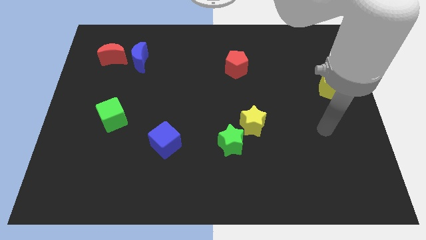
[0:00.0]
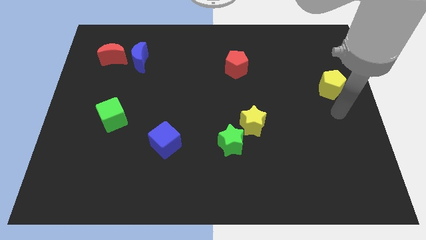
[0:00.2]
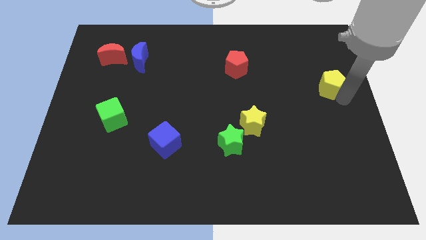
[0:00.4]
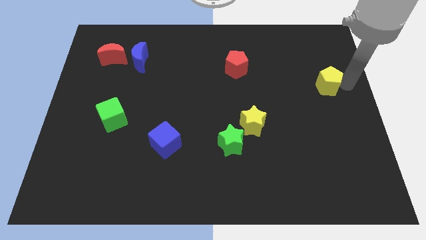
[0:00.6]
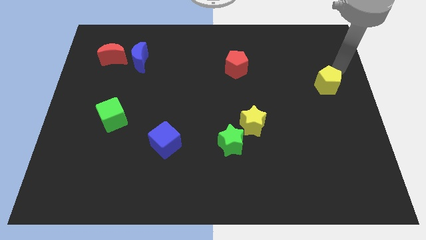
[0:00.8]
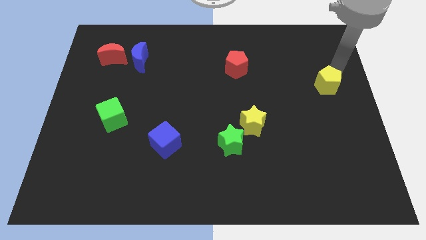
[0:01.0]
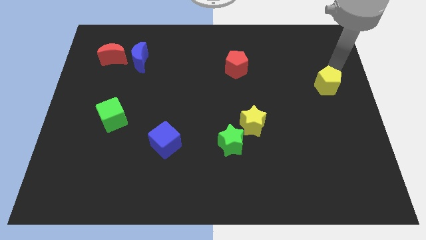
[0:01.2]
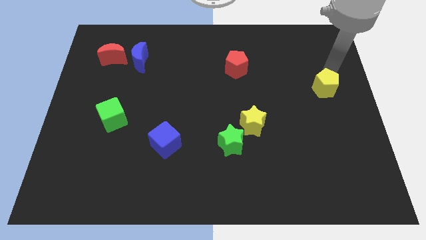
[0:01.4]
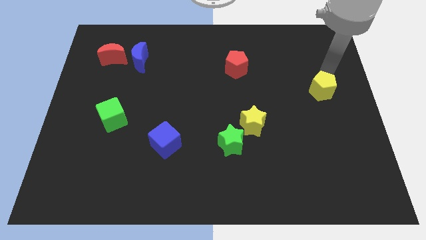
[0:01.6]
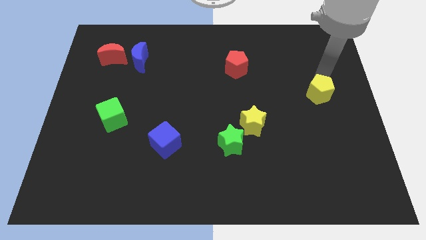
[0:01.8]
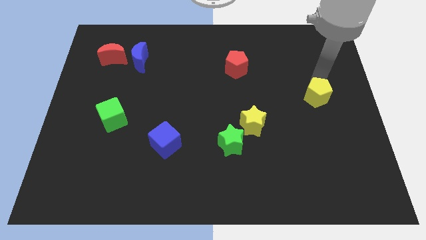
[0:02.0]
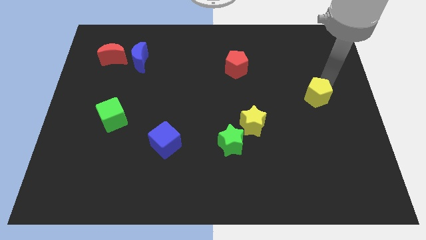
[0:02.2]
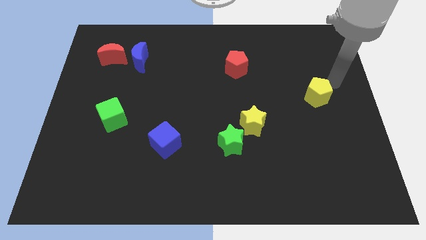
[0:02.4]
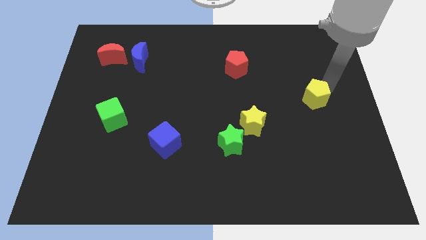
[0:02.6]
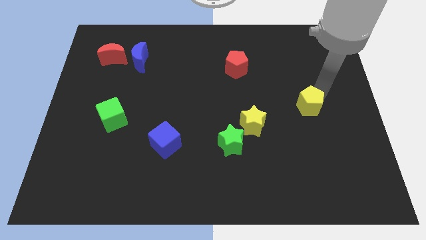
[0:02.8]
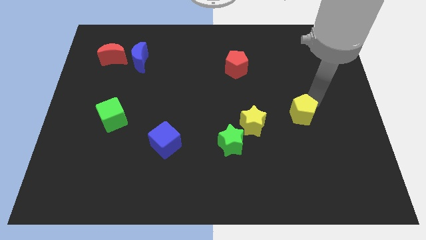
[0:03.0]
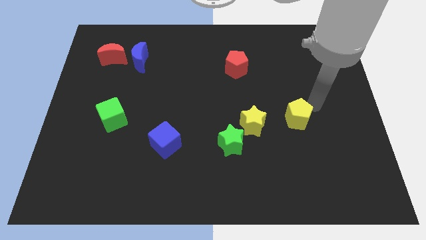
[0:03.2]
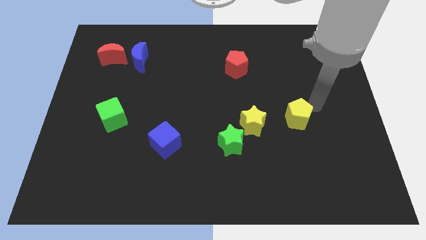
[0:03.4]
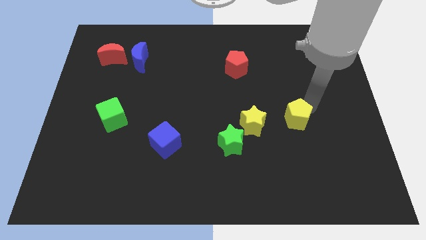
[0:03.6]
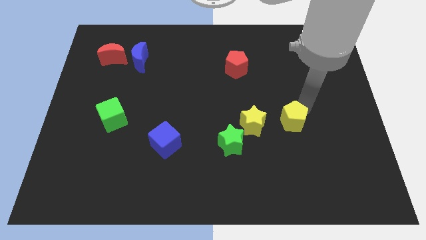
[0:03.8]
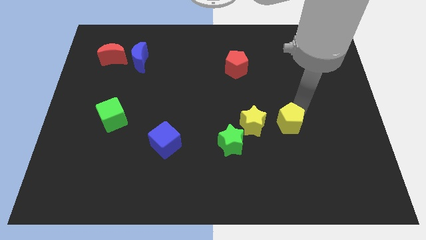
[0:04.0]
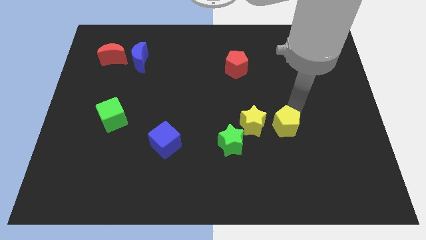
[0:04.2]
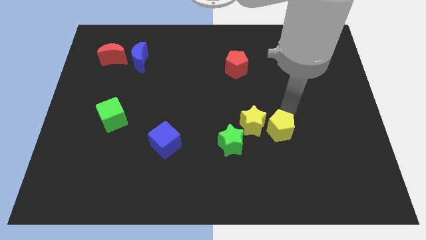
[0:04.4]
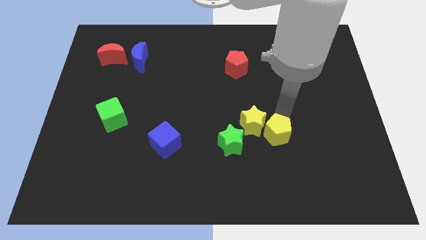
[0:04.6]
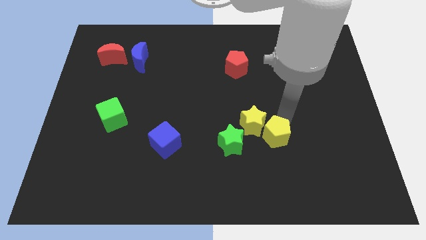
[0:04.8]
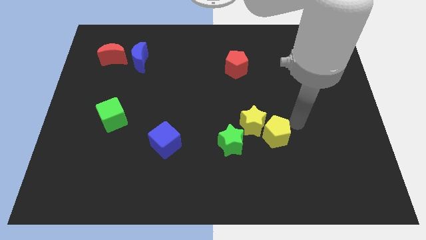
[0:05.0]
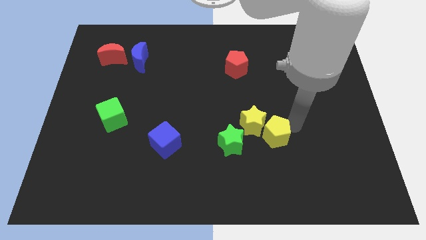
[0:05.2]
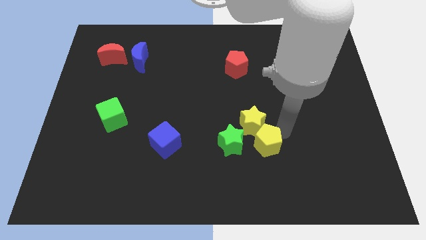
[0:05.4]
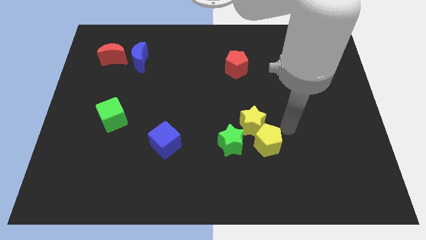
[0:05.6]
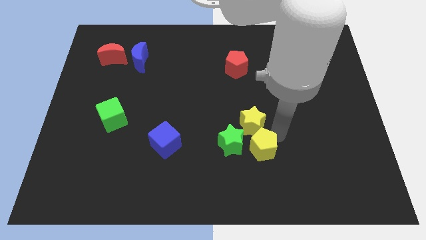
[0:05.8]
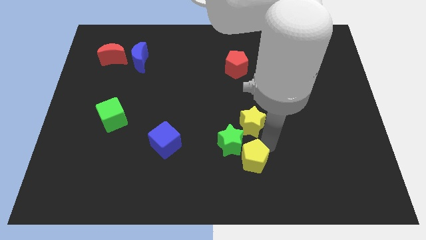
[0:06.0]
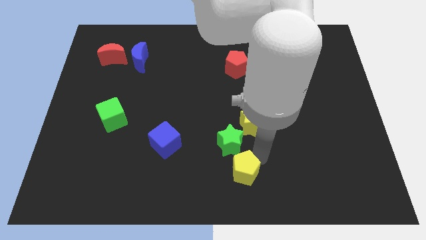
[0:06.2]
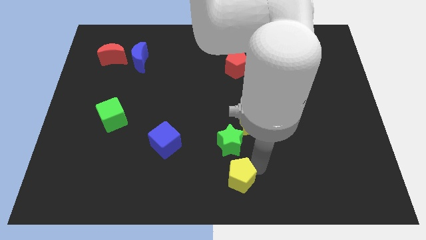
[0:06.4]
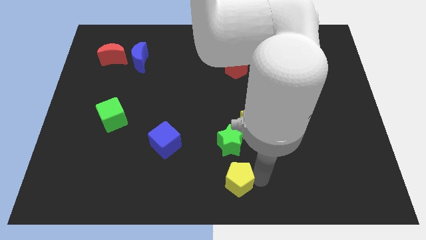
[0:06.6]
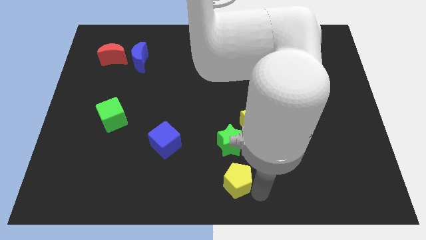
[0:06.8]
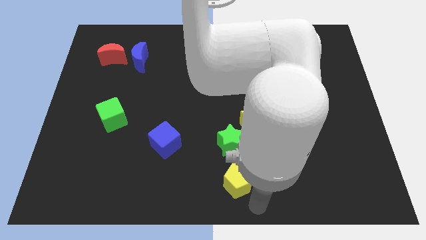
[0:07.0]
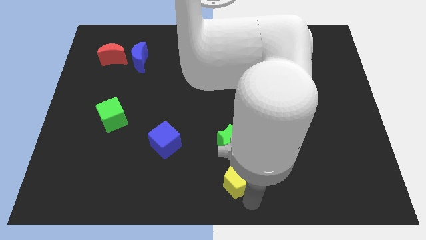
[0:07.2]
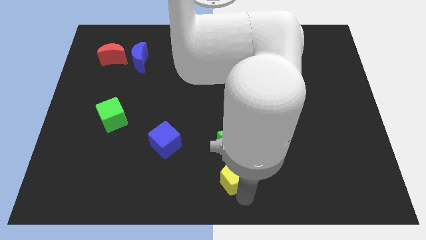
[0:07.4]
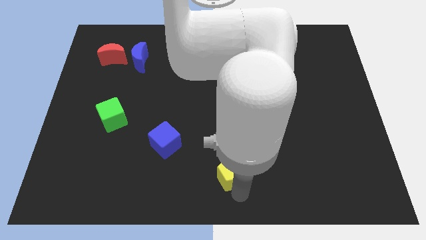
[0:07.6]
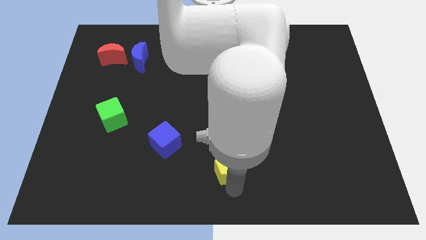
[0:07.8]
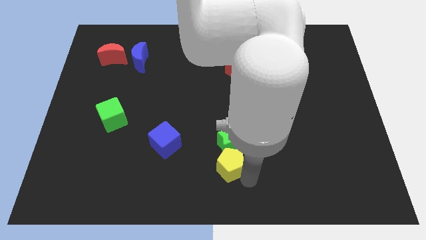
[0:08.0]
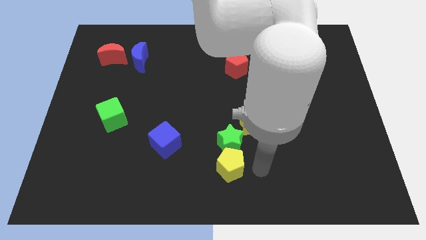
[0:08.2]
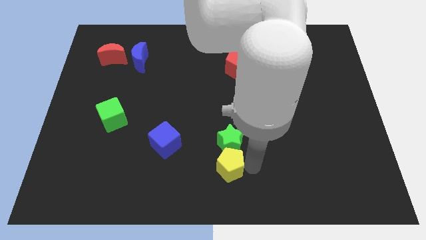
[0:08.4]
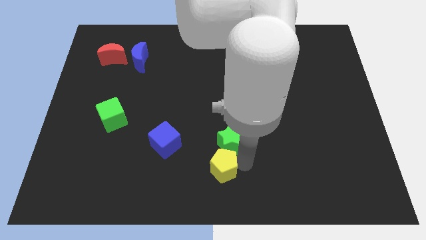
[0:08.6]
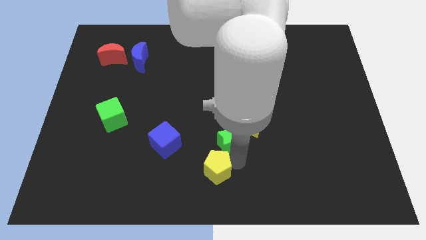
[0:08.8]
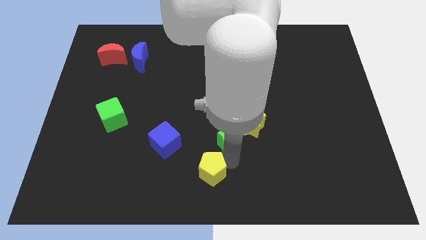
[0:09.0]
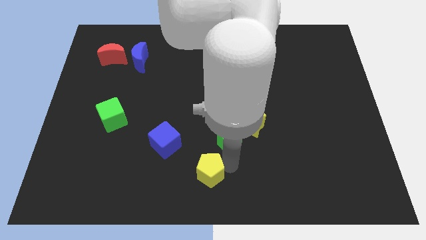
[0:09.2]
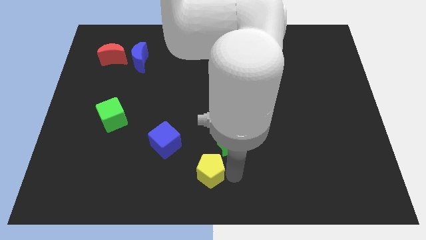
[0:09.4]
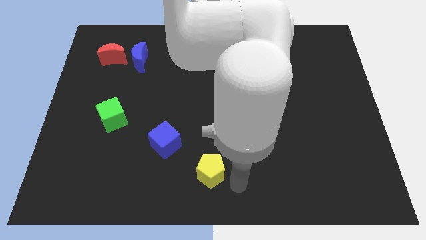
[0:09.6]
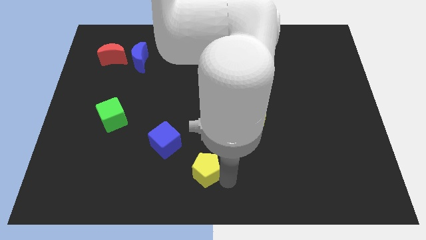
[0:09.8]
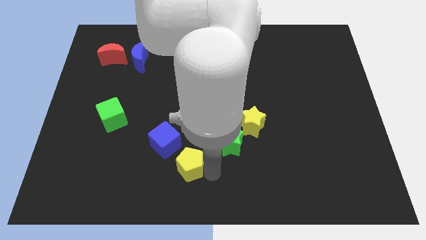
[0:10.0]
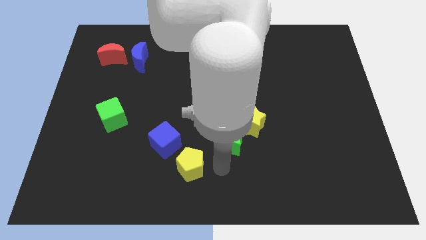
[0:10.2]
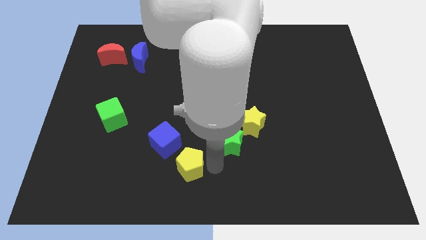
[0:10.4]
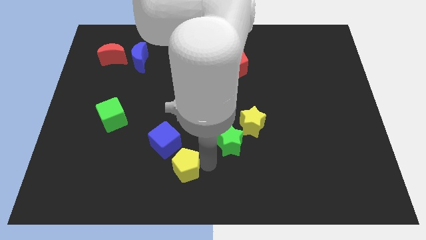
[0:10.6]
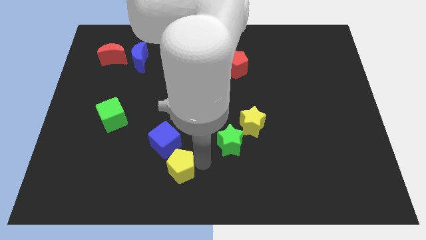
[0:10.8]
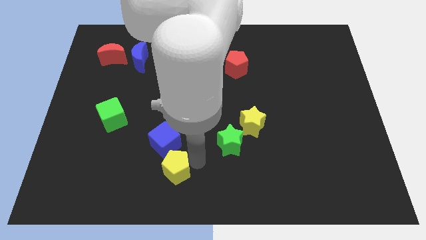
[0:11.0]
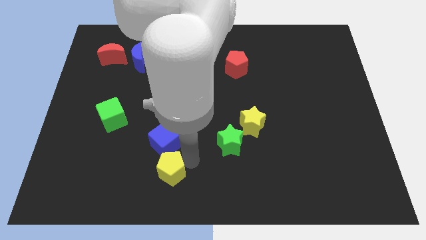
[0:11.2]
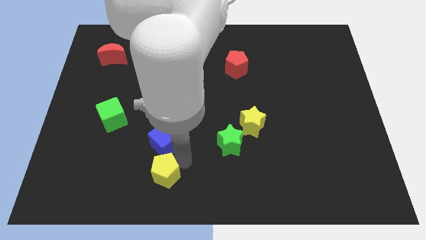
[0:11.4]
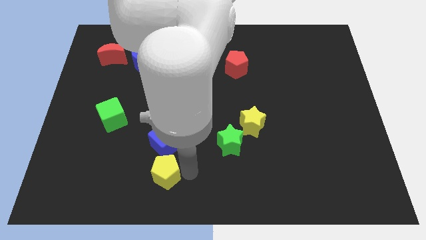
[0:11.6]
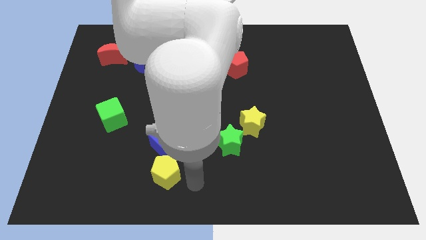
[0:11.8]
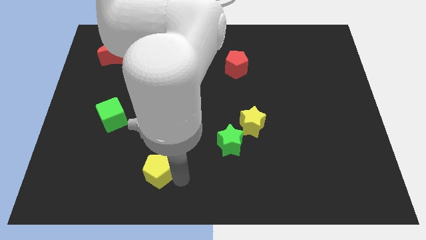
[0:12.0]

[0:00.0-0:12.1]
push the yellow pentagon diagonally down and to the left of the blue cube

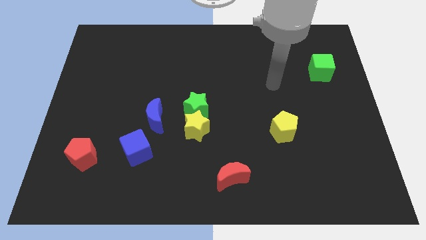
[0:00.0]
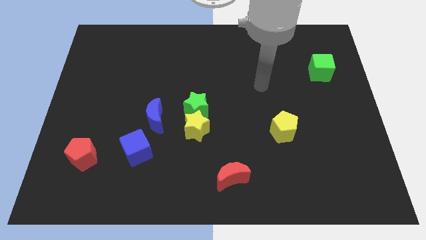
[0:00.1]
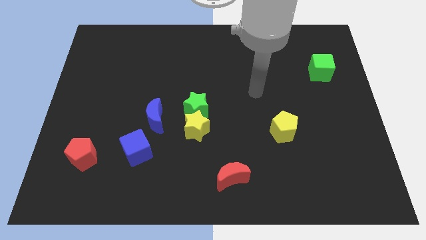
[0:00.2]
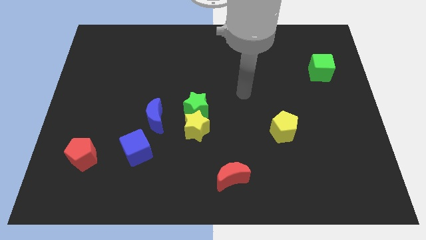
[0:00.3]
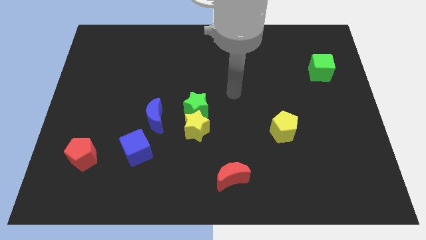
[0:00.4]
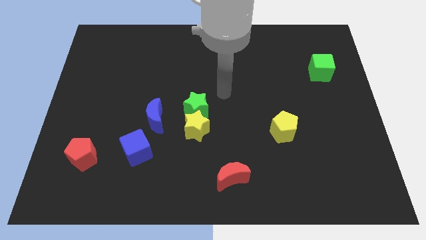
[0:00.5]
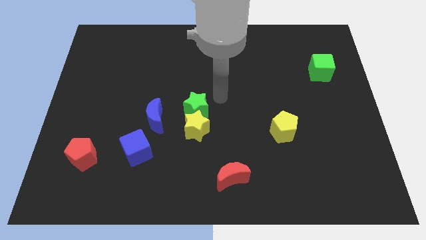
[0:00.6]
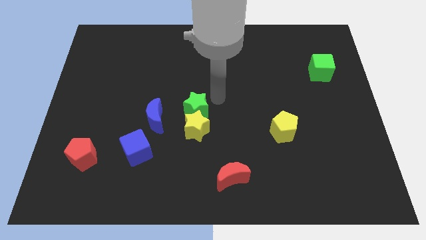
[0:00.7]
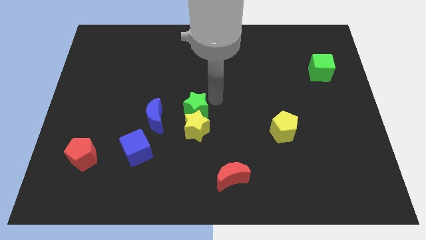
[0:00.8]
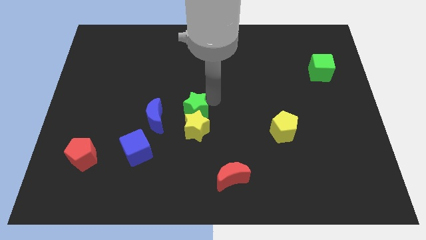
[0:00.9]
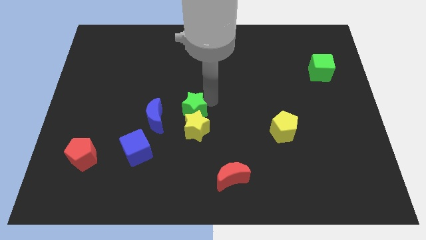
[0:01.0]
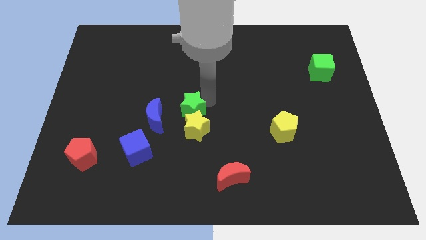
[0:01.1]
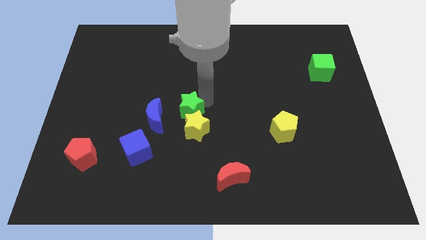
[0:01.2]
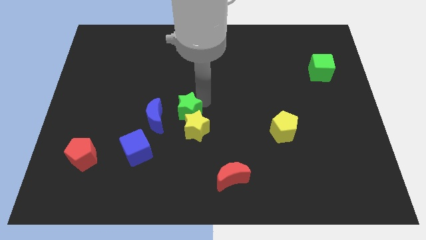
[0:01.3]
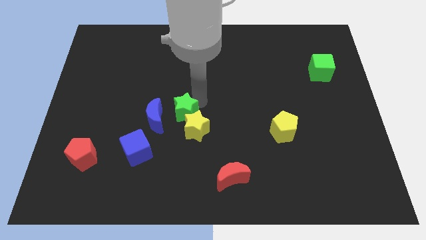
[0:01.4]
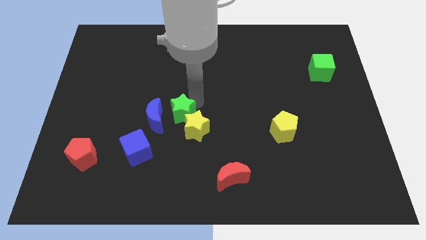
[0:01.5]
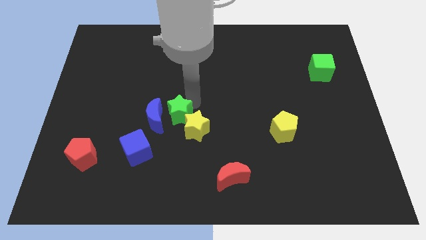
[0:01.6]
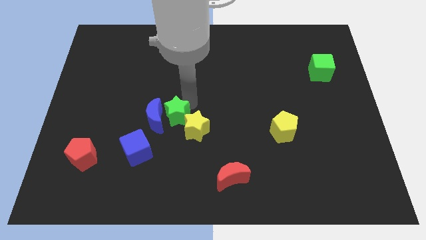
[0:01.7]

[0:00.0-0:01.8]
push the green star to the top right of the blue cube
